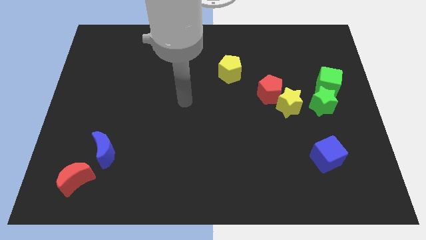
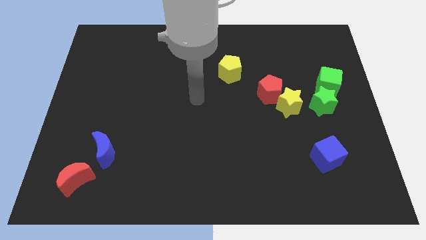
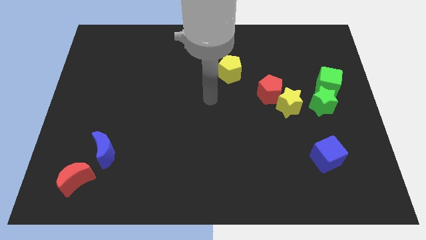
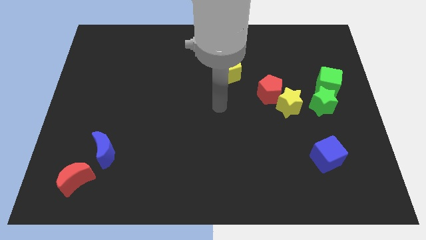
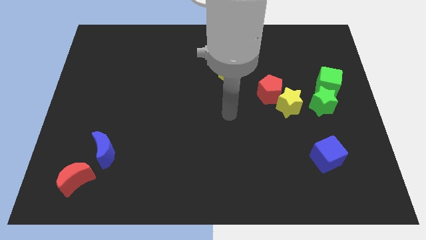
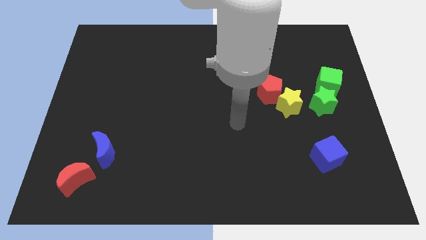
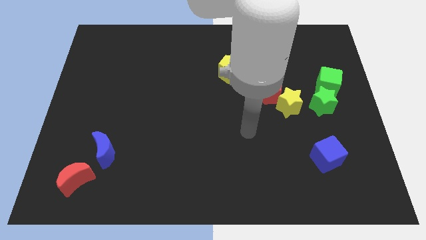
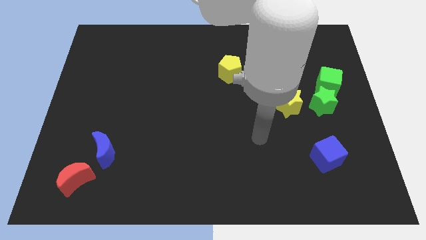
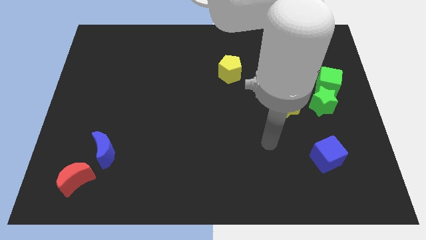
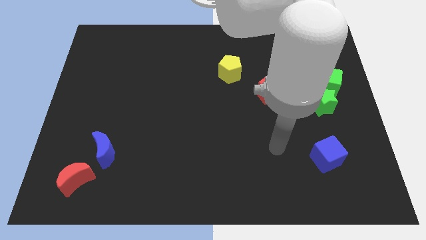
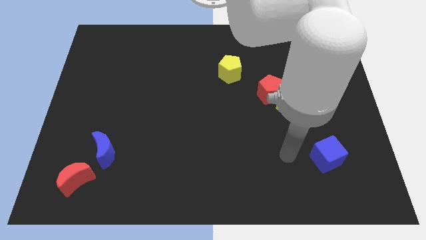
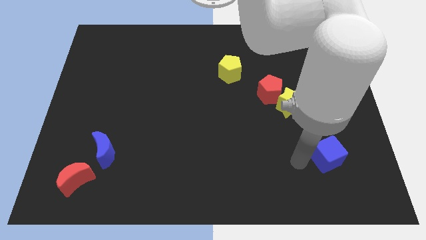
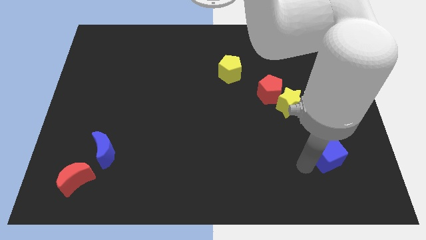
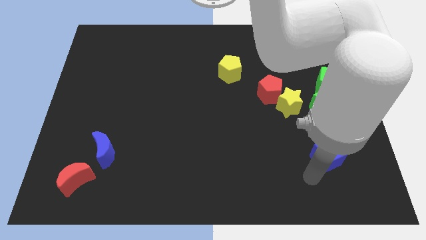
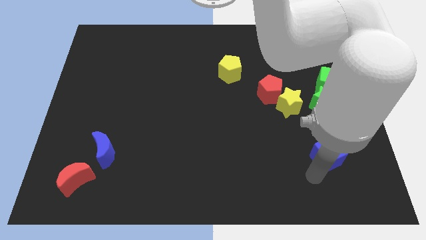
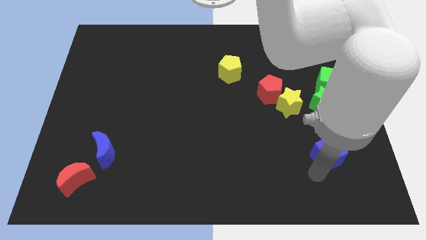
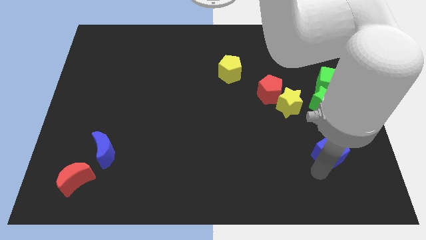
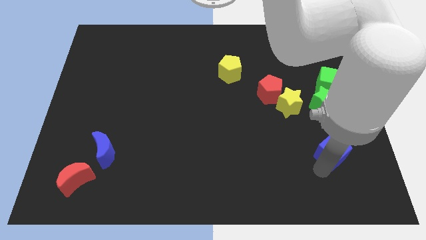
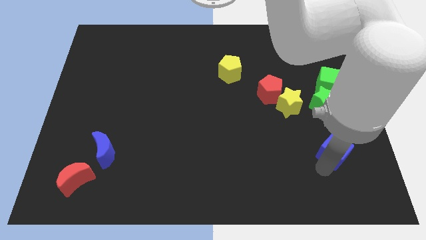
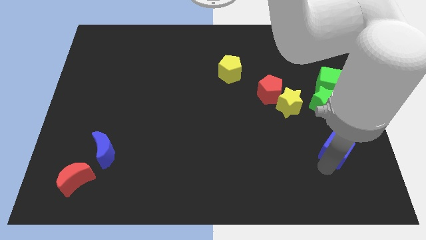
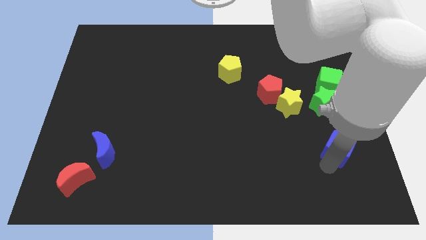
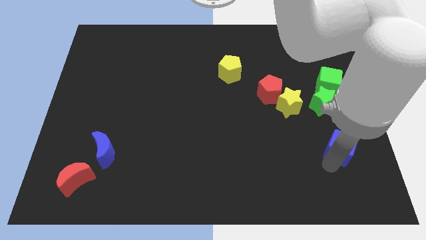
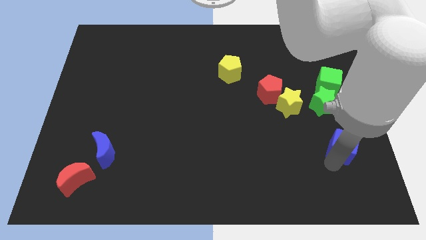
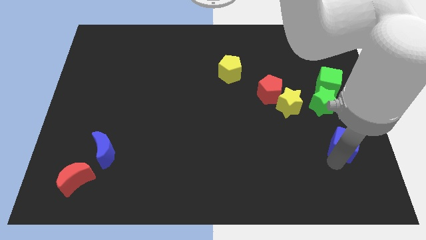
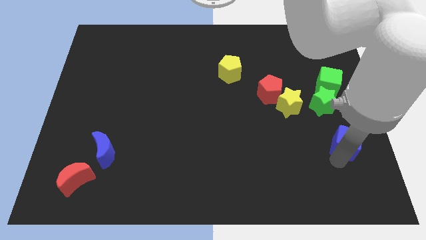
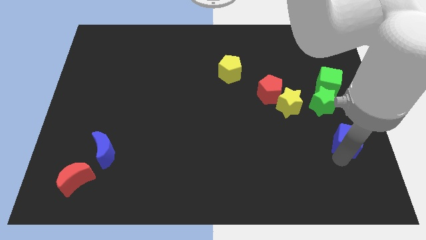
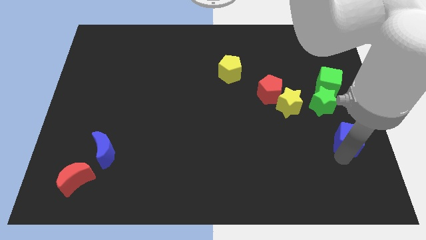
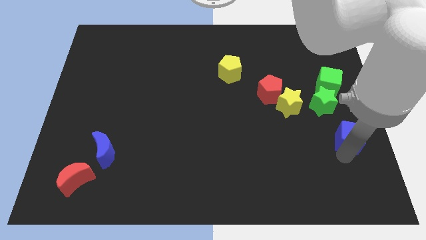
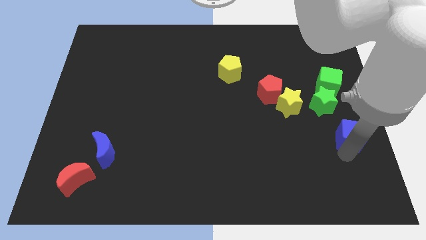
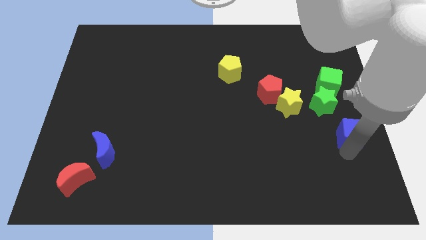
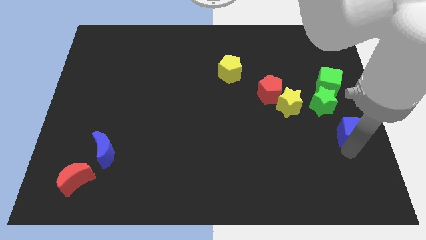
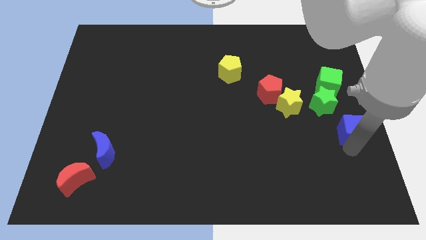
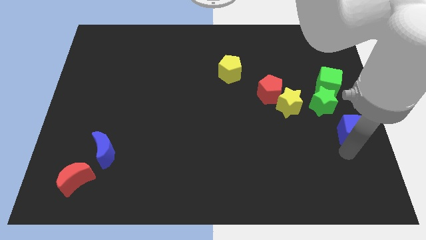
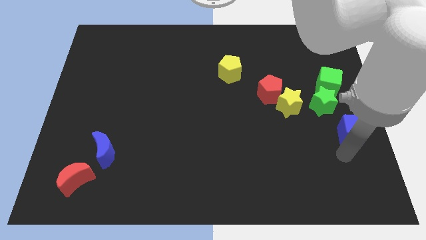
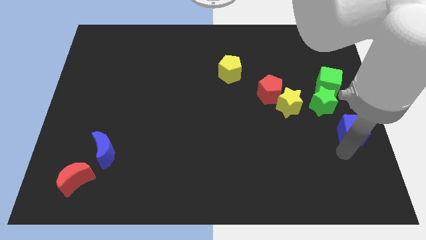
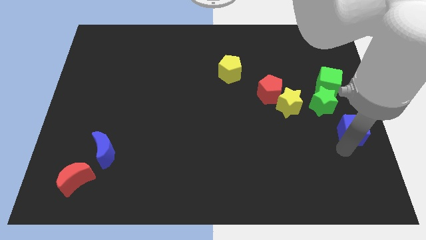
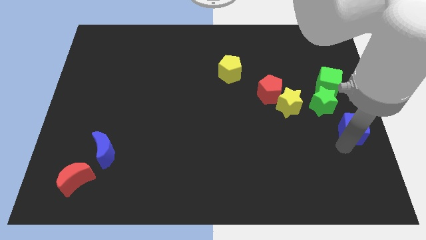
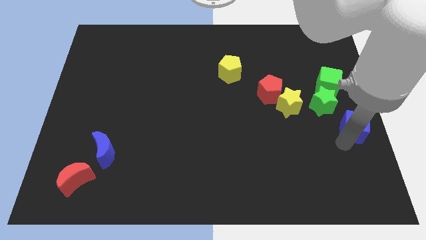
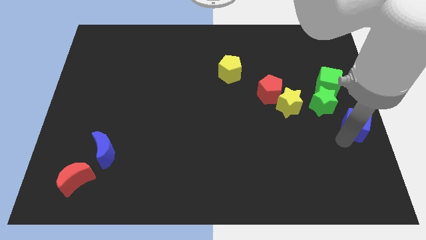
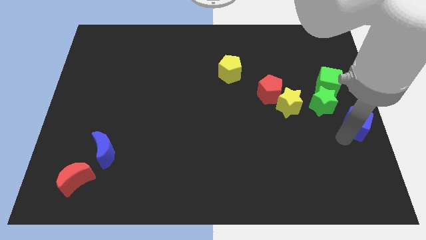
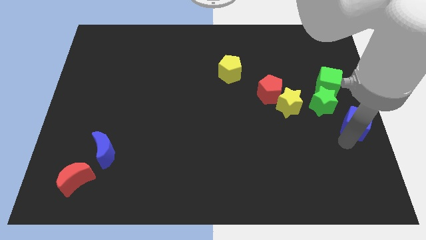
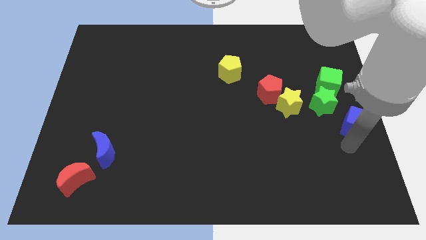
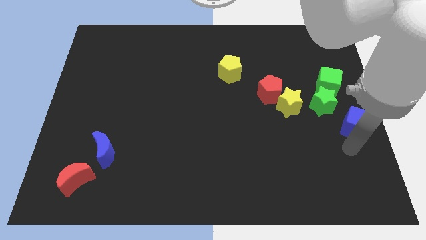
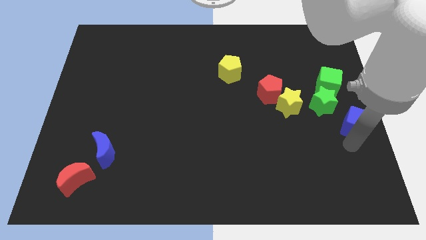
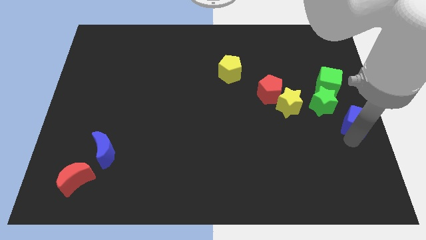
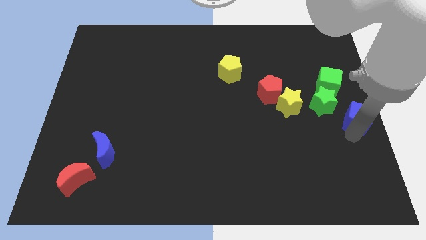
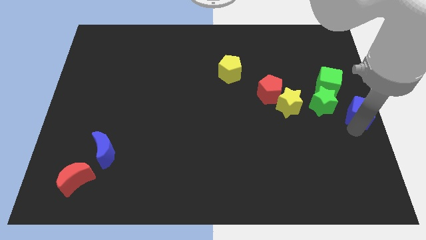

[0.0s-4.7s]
slightly push the blue cube upwards

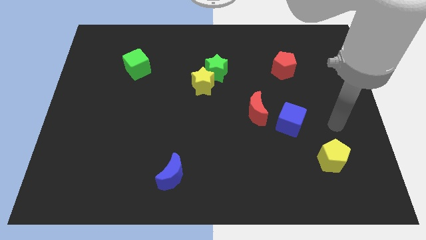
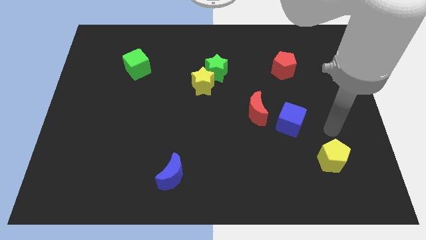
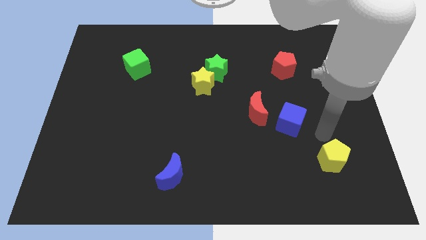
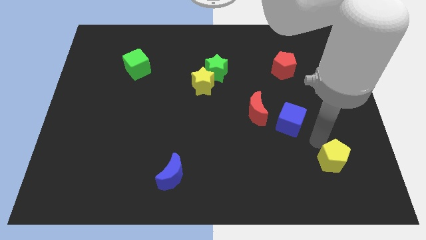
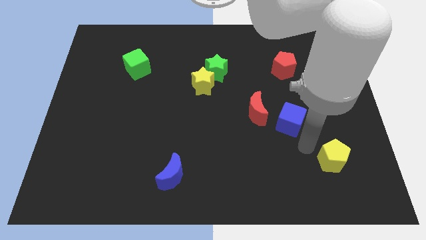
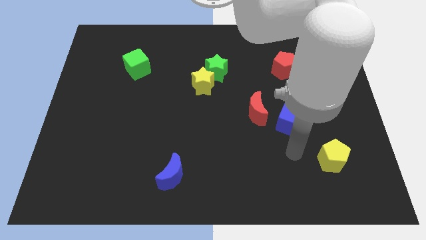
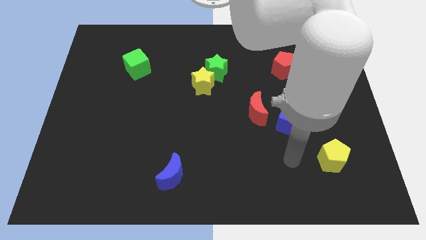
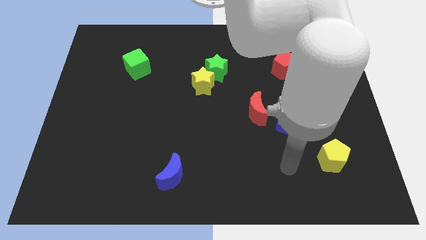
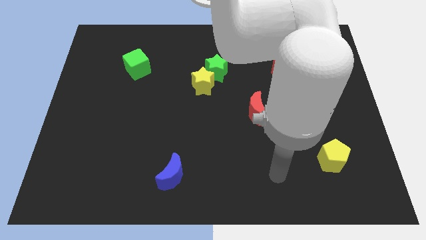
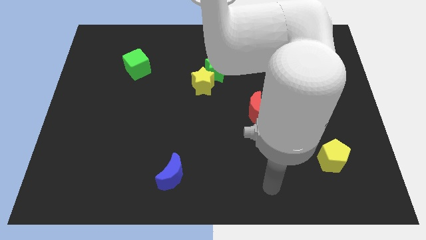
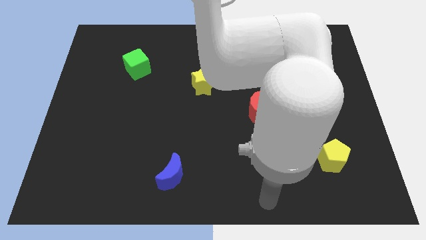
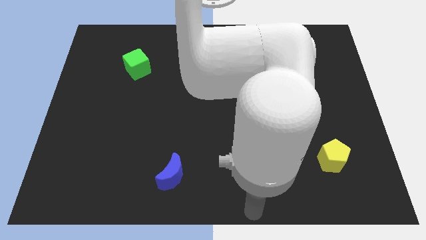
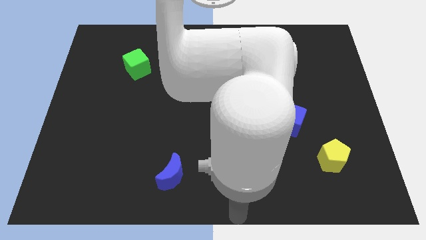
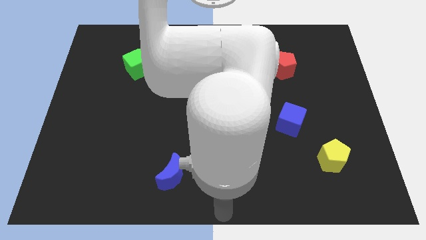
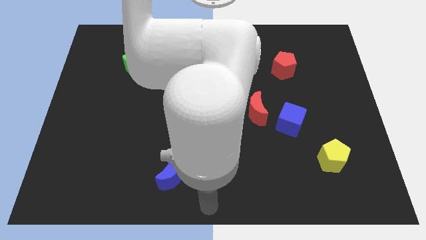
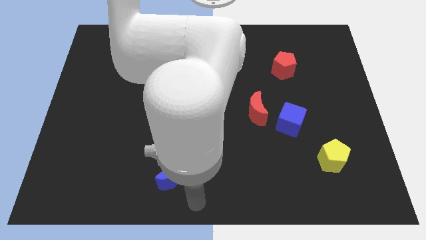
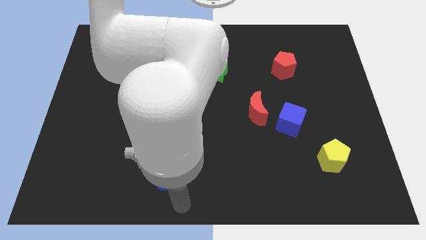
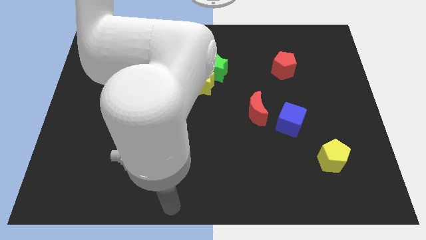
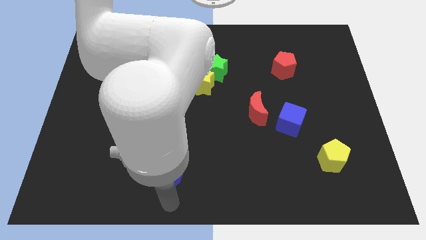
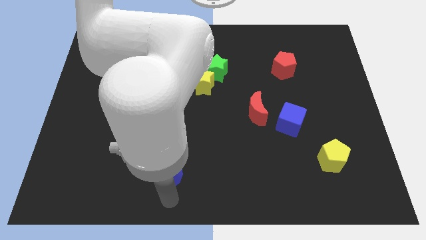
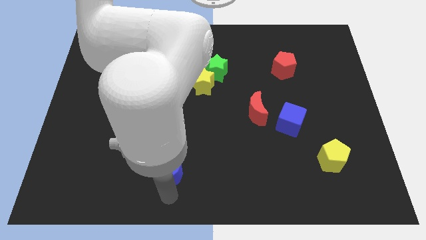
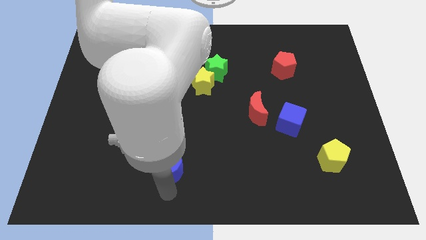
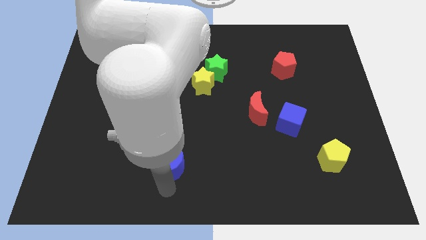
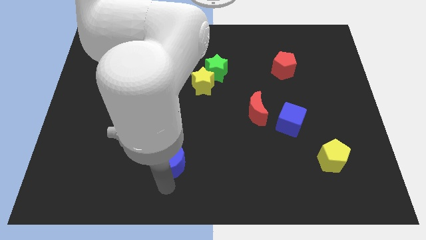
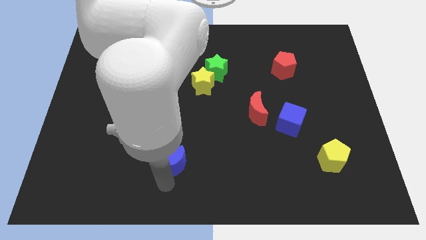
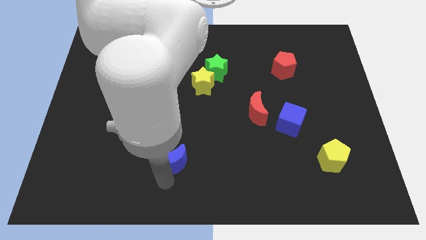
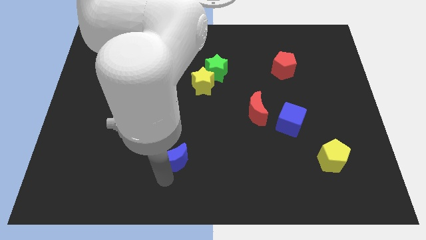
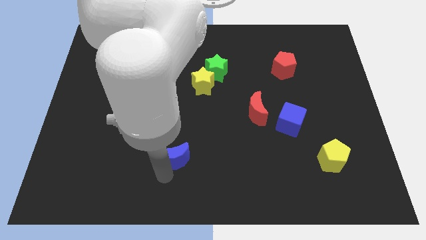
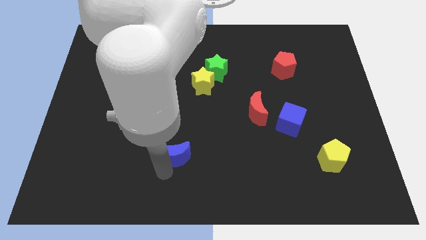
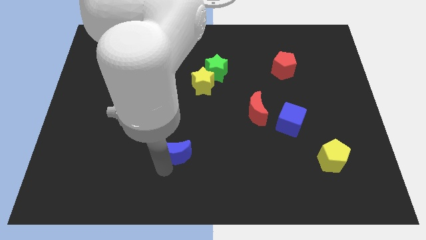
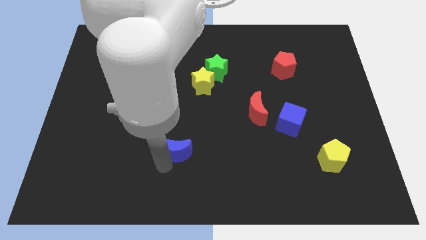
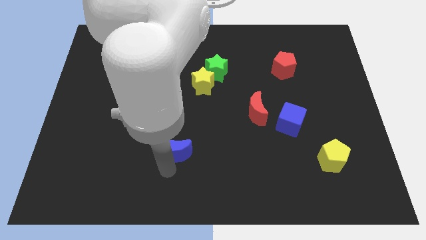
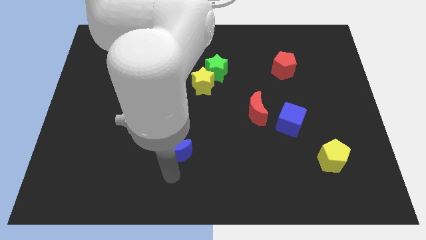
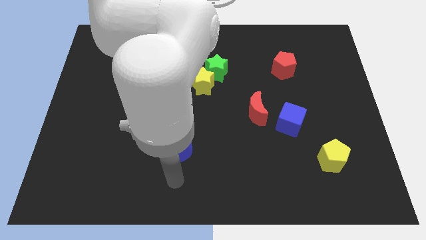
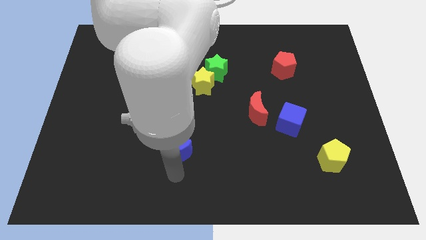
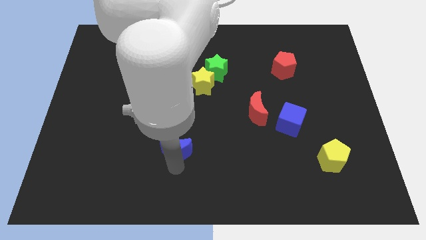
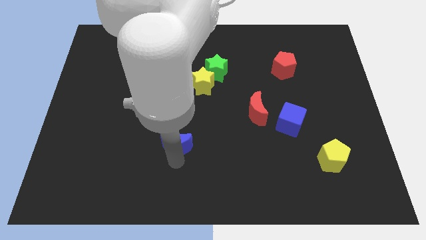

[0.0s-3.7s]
push the blue moon a little up
